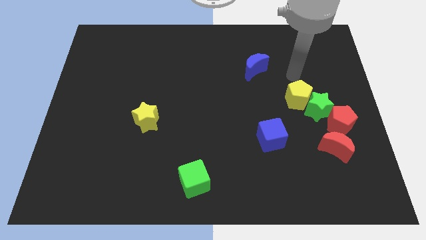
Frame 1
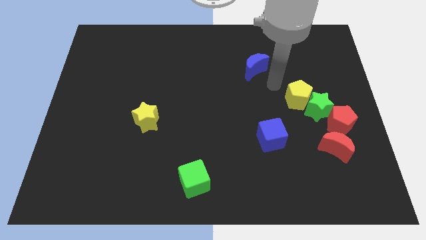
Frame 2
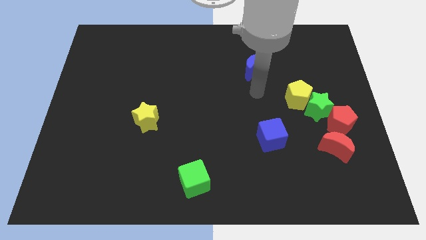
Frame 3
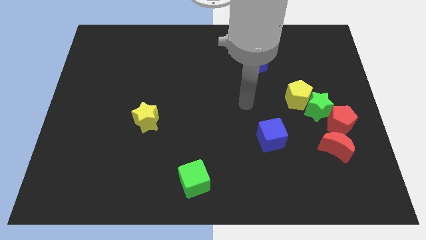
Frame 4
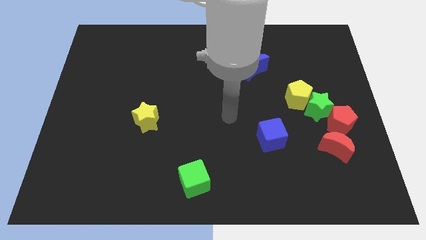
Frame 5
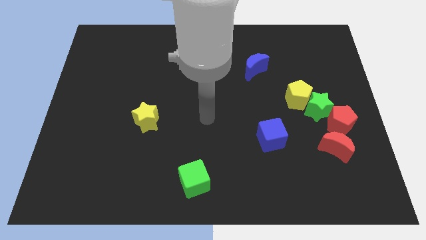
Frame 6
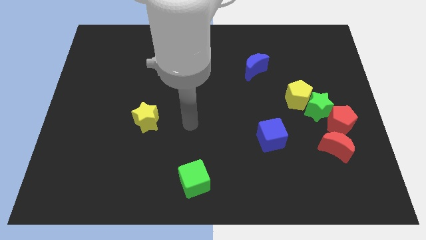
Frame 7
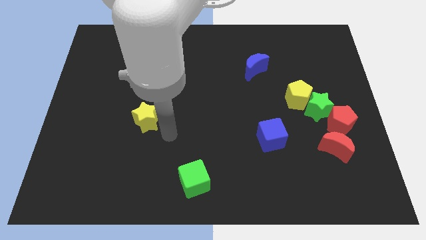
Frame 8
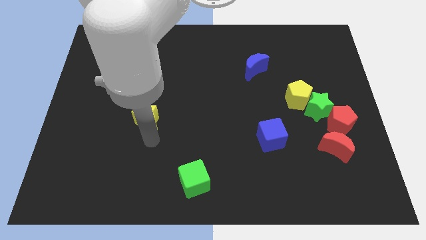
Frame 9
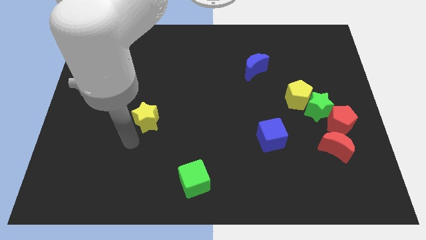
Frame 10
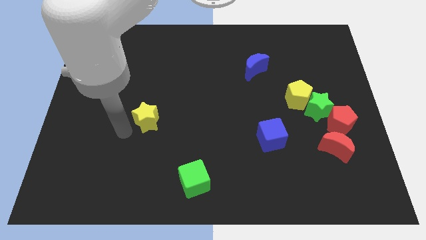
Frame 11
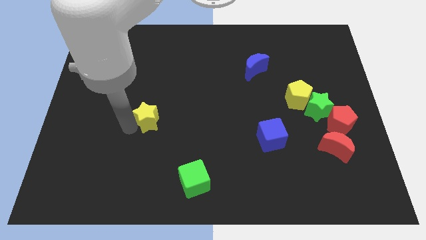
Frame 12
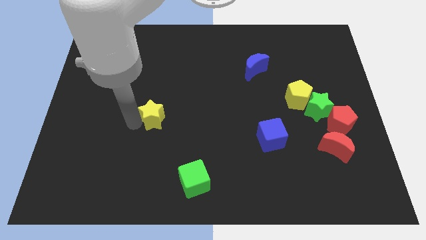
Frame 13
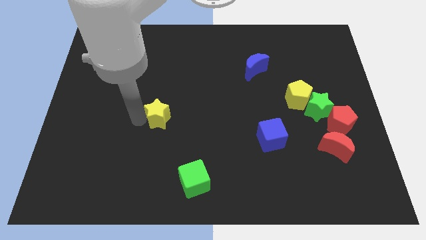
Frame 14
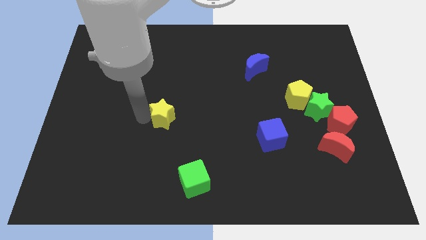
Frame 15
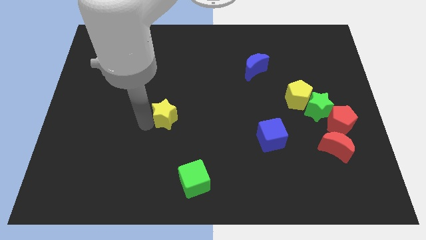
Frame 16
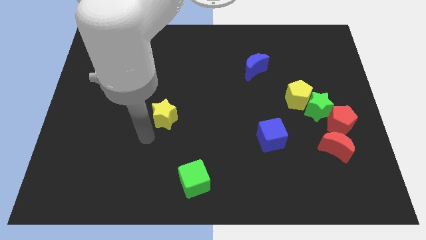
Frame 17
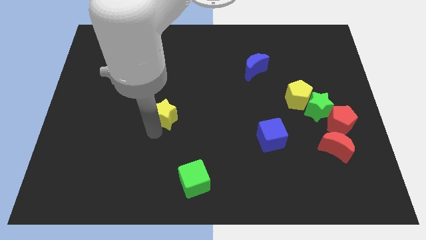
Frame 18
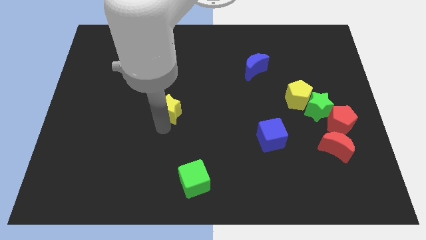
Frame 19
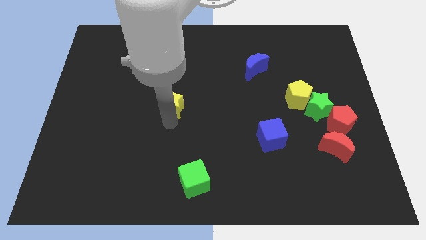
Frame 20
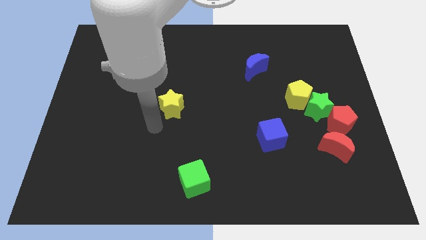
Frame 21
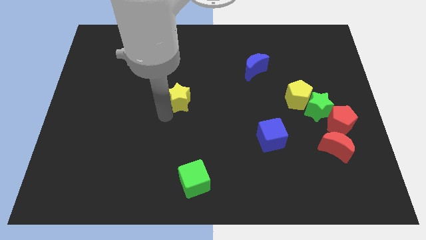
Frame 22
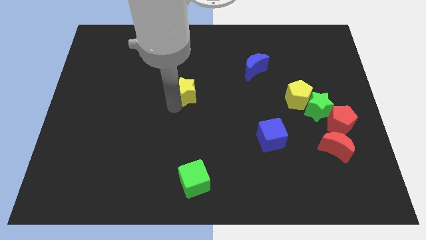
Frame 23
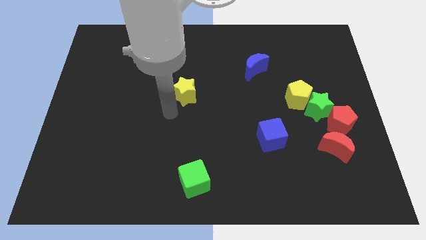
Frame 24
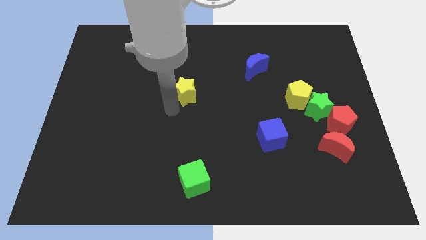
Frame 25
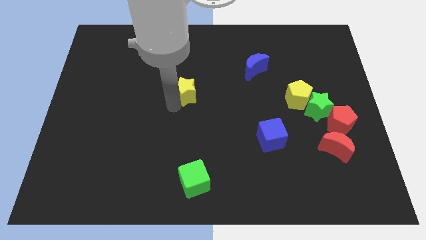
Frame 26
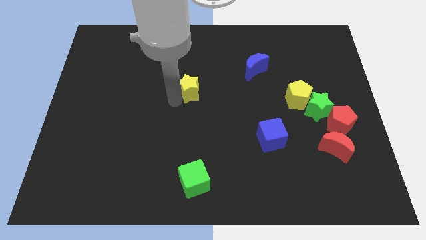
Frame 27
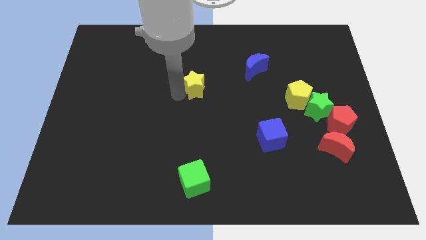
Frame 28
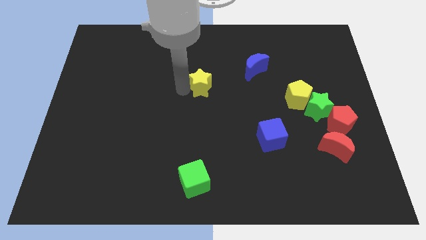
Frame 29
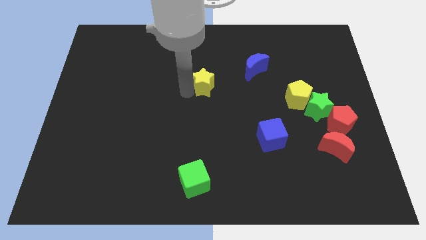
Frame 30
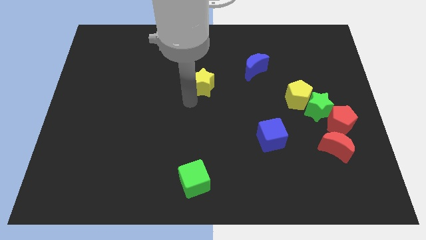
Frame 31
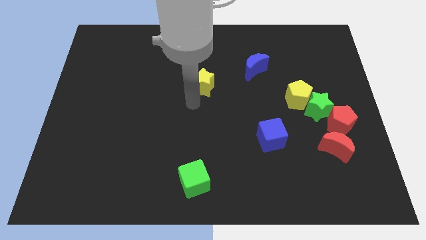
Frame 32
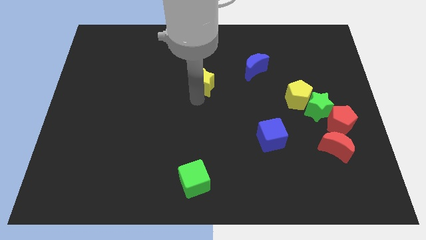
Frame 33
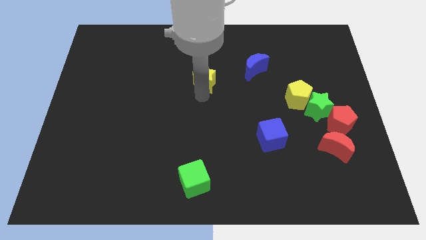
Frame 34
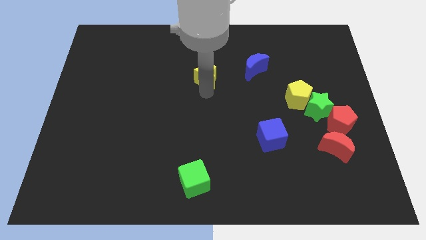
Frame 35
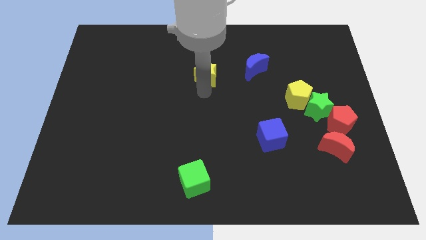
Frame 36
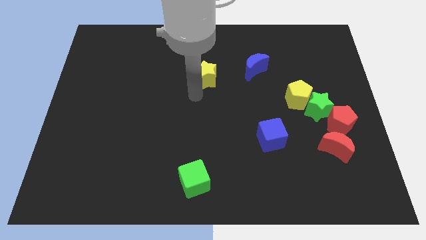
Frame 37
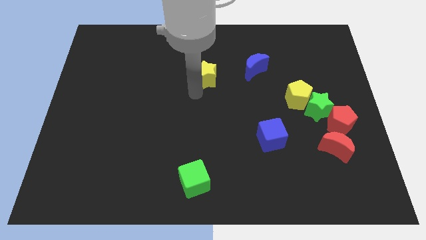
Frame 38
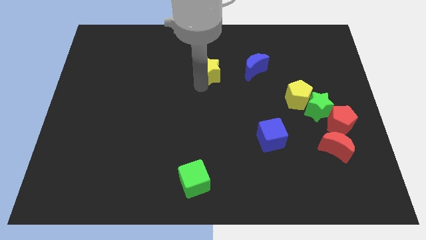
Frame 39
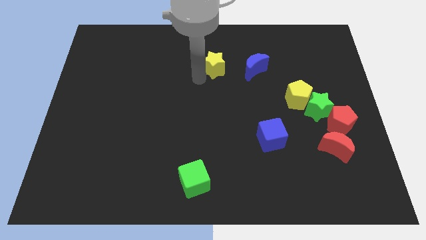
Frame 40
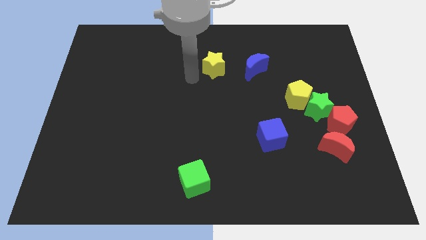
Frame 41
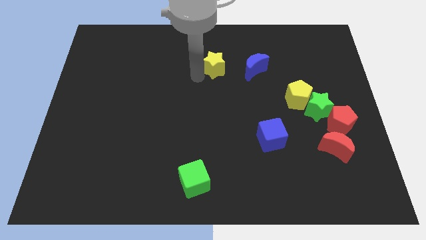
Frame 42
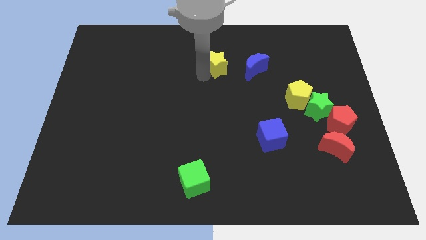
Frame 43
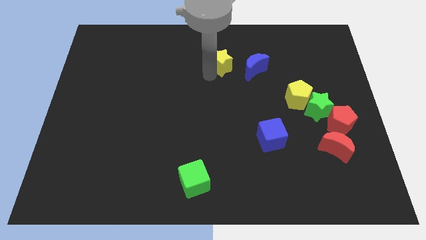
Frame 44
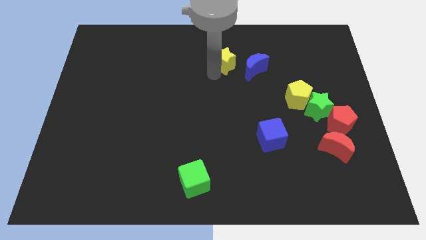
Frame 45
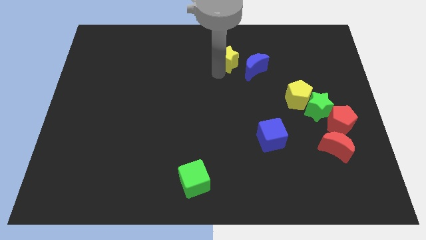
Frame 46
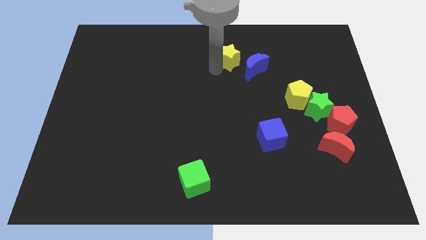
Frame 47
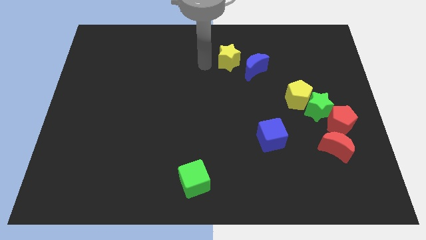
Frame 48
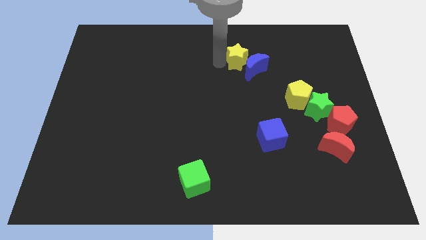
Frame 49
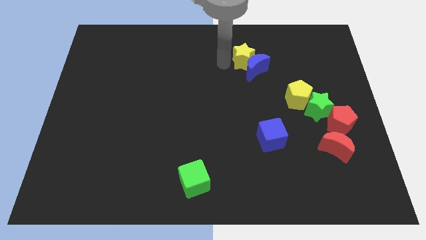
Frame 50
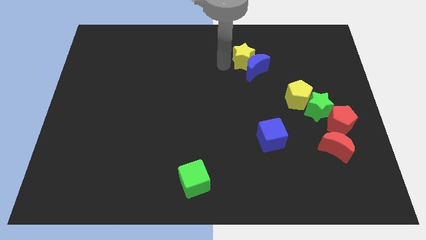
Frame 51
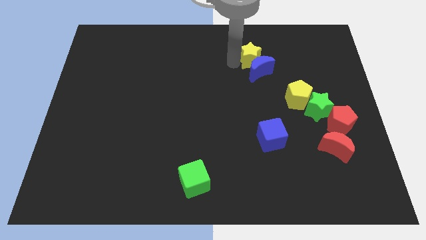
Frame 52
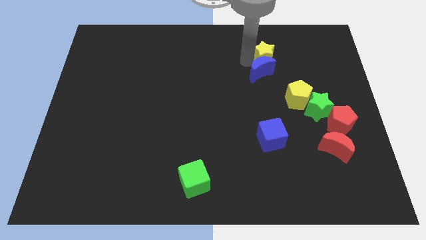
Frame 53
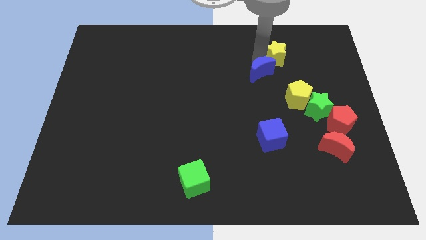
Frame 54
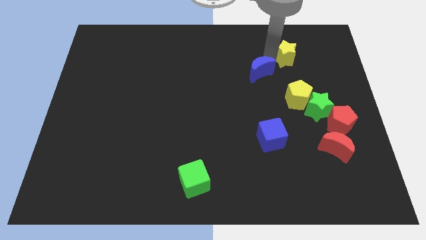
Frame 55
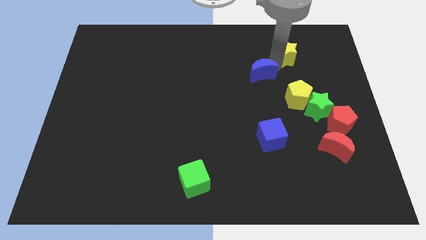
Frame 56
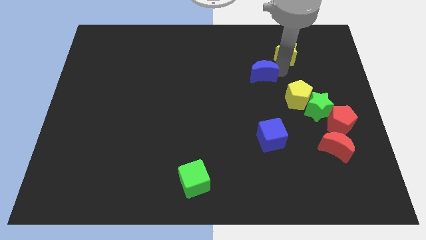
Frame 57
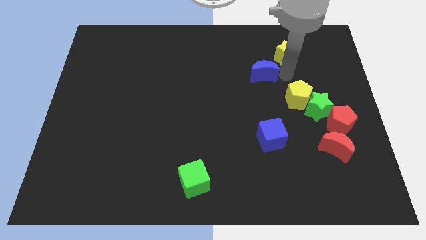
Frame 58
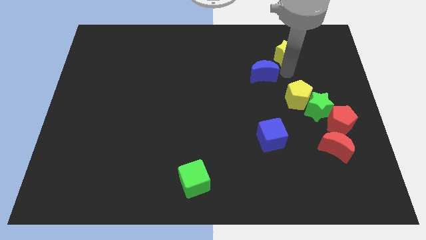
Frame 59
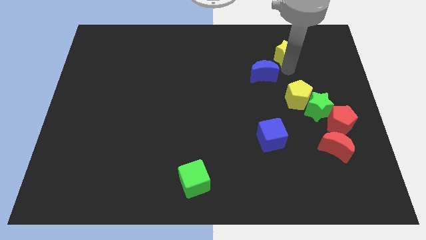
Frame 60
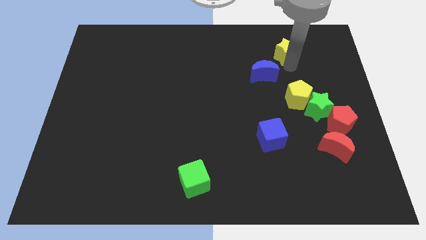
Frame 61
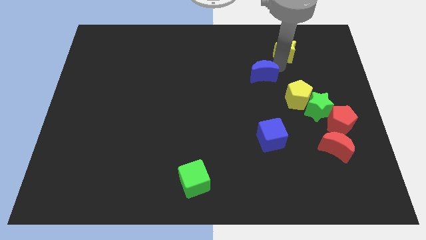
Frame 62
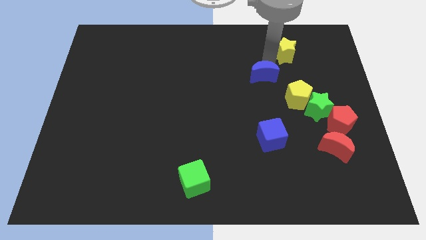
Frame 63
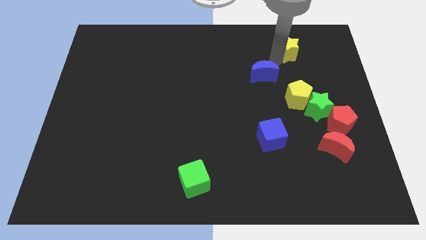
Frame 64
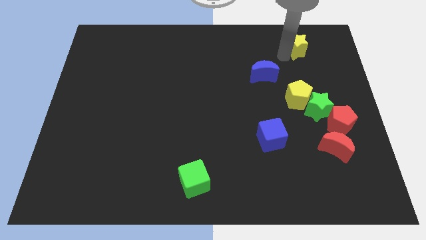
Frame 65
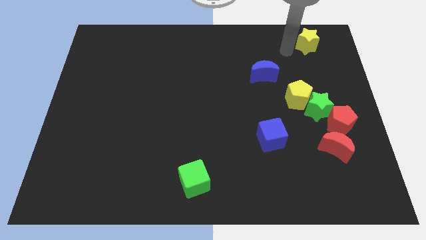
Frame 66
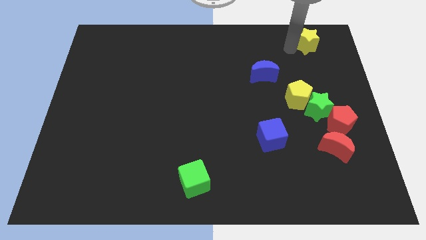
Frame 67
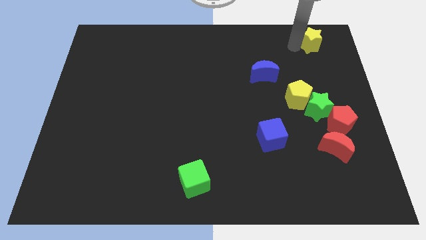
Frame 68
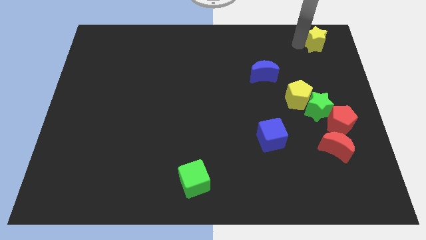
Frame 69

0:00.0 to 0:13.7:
put the yellow star to the top right of the board
